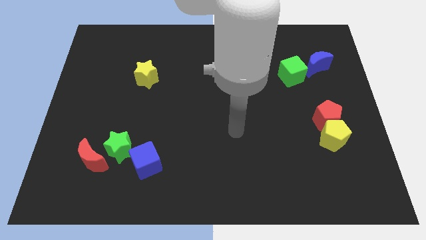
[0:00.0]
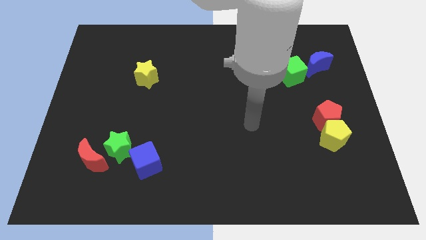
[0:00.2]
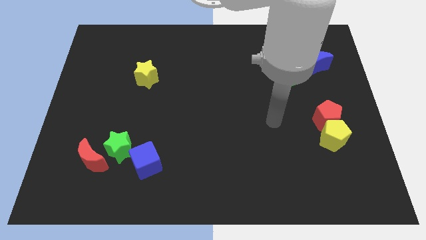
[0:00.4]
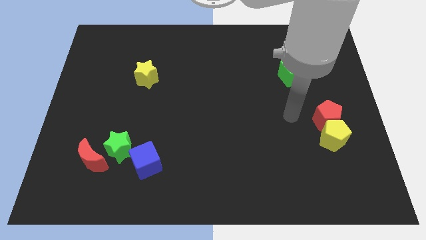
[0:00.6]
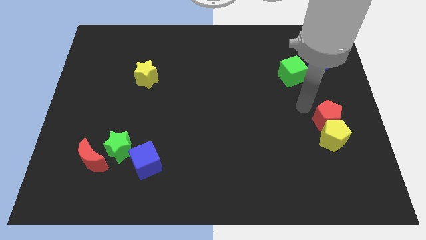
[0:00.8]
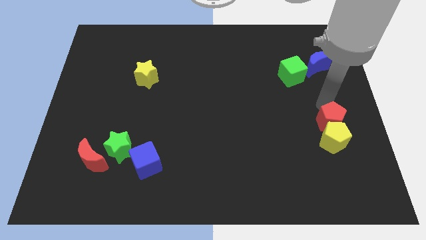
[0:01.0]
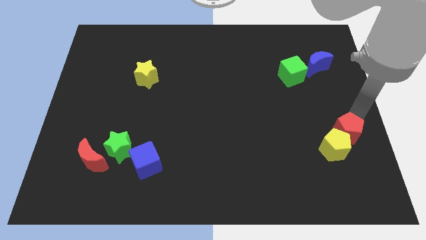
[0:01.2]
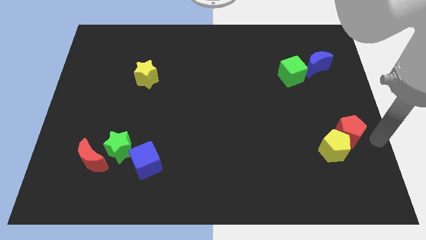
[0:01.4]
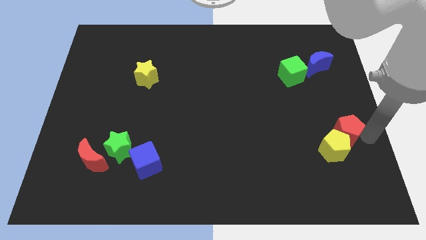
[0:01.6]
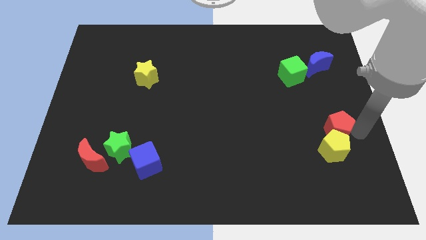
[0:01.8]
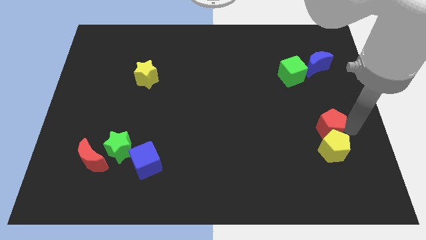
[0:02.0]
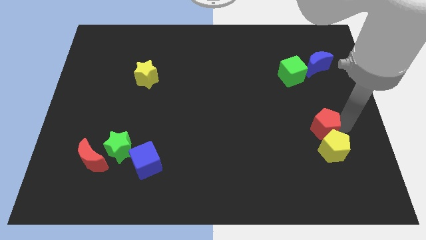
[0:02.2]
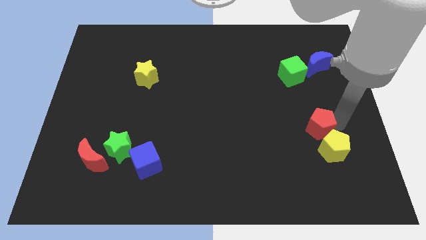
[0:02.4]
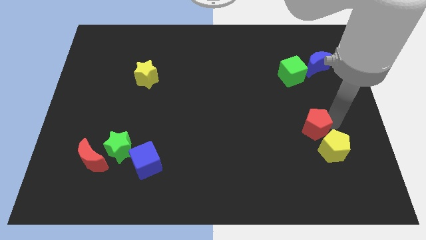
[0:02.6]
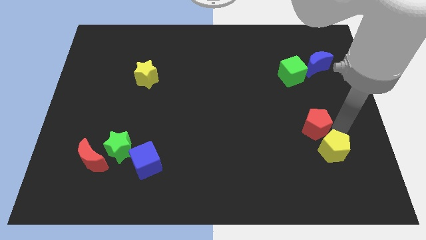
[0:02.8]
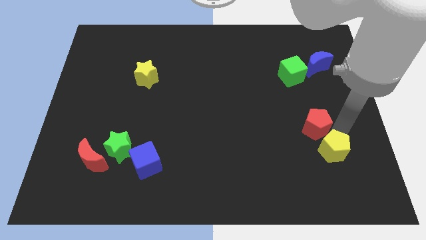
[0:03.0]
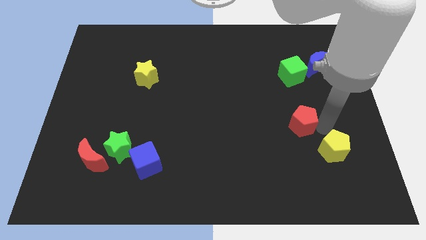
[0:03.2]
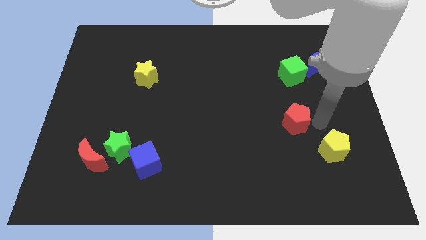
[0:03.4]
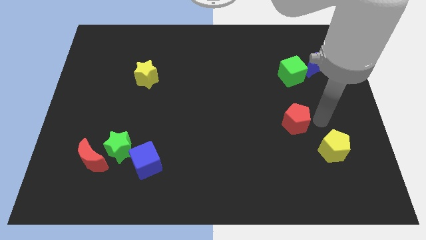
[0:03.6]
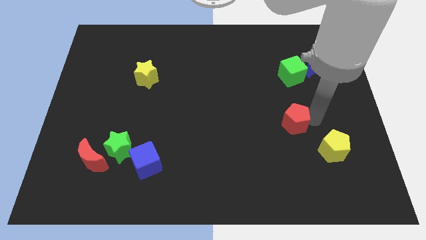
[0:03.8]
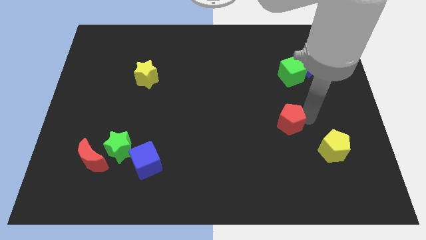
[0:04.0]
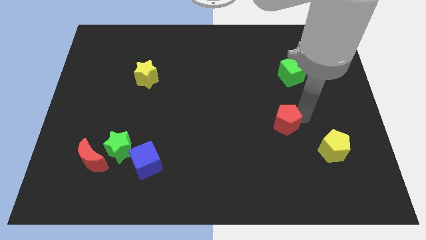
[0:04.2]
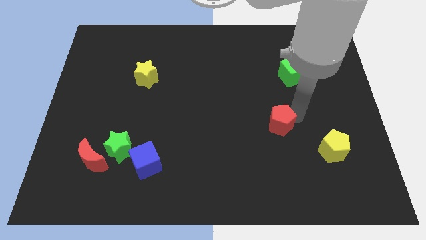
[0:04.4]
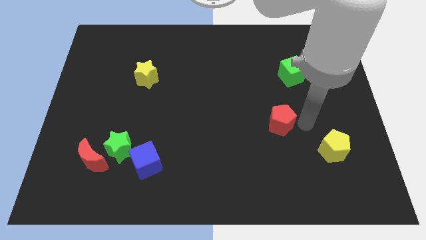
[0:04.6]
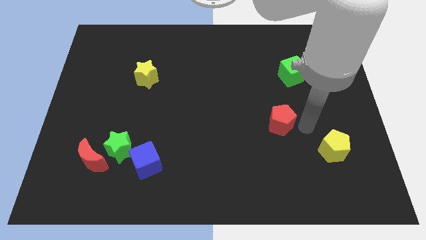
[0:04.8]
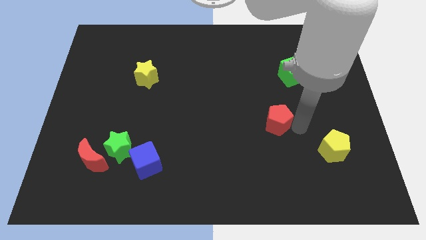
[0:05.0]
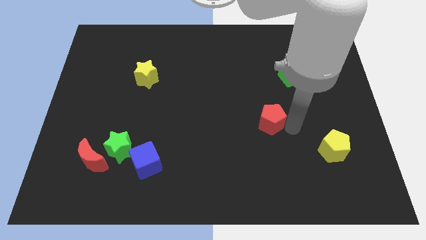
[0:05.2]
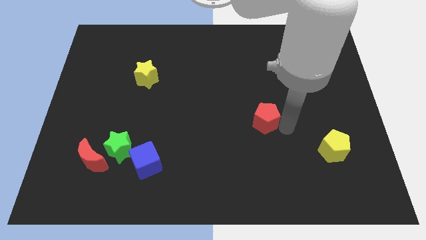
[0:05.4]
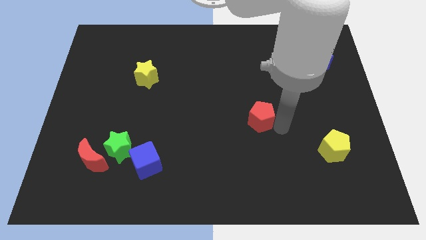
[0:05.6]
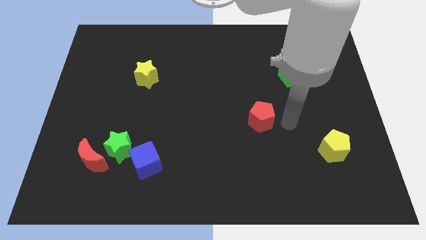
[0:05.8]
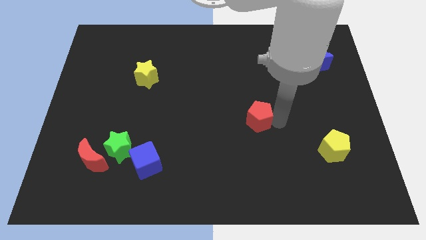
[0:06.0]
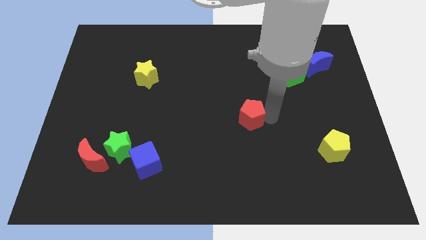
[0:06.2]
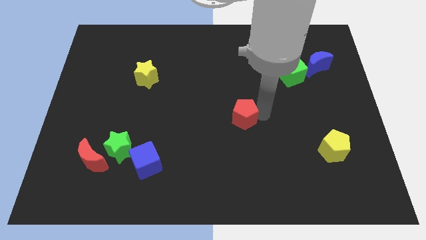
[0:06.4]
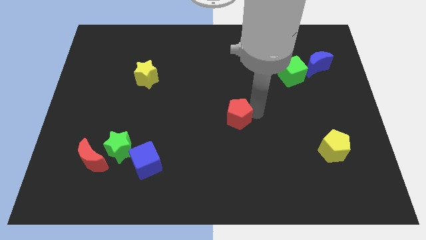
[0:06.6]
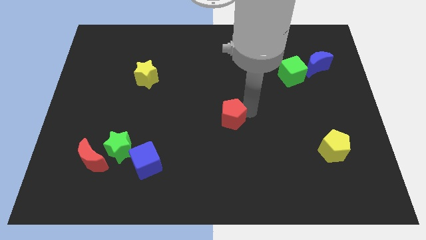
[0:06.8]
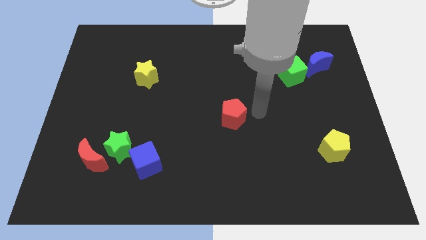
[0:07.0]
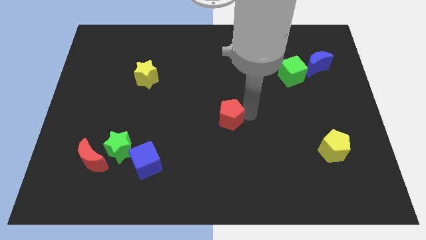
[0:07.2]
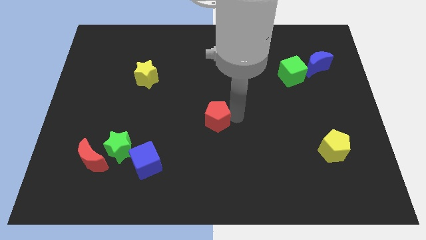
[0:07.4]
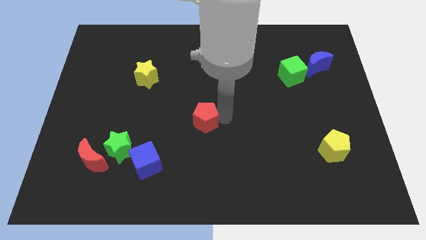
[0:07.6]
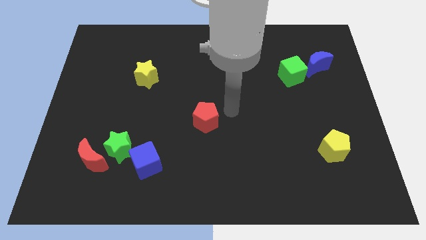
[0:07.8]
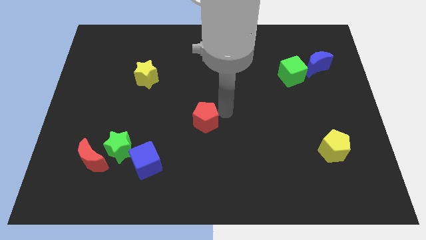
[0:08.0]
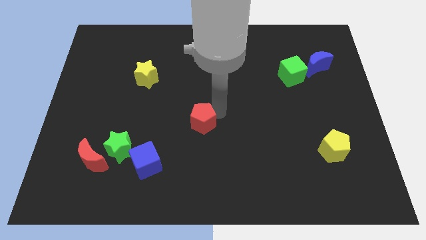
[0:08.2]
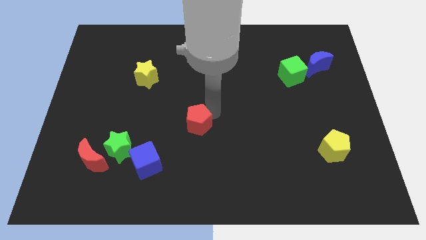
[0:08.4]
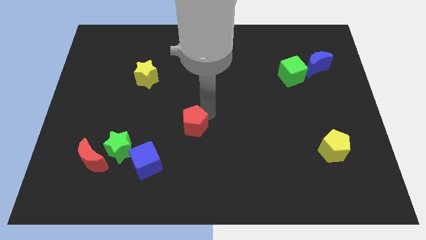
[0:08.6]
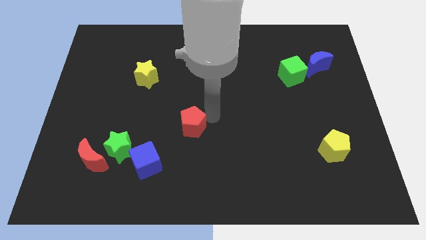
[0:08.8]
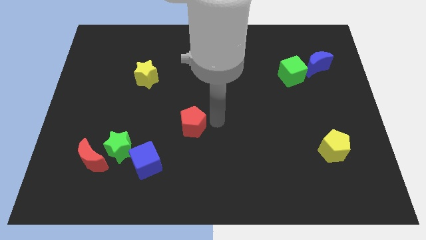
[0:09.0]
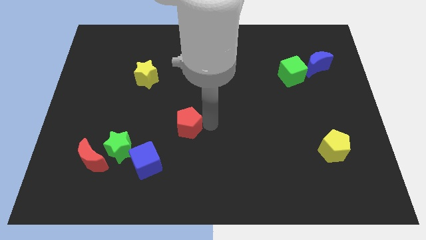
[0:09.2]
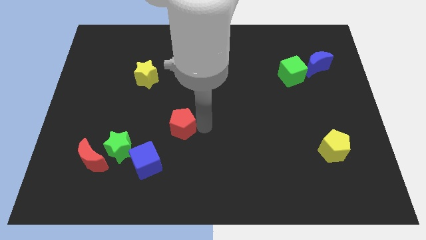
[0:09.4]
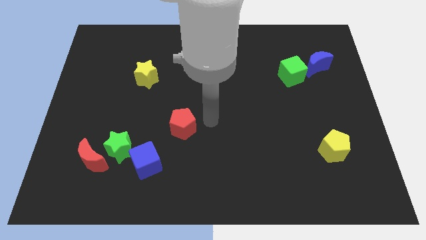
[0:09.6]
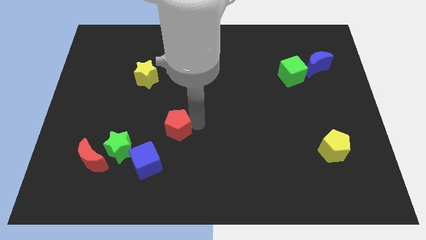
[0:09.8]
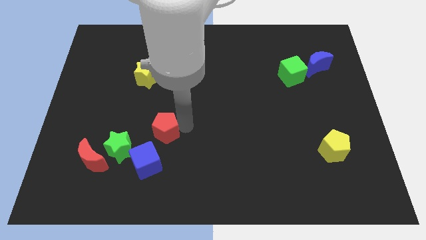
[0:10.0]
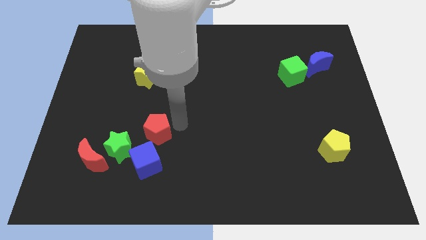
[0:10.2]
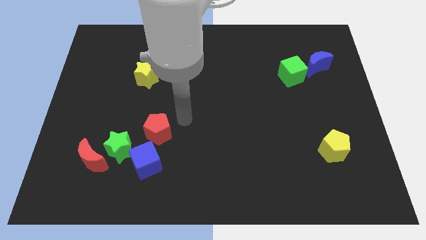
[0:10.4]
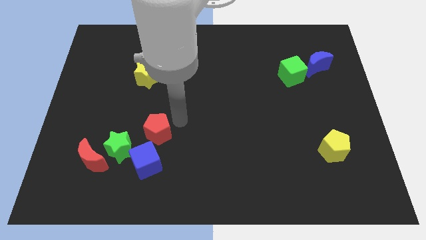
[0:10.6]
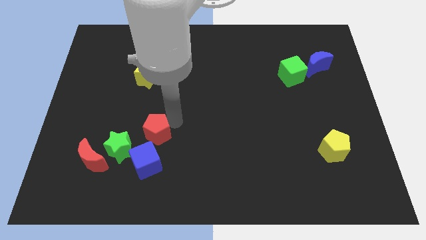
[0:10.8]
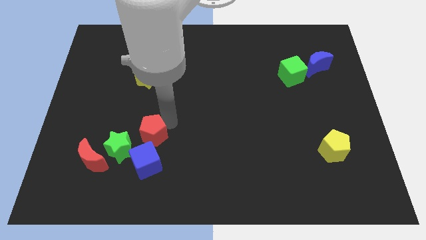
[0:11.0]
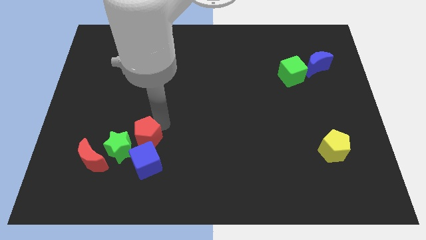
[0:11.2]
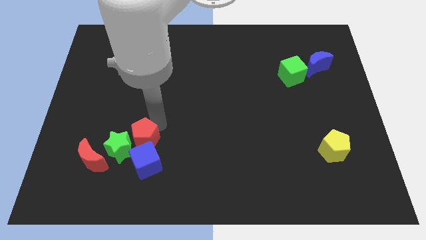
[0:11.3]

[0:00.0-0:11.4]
slide the red pentagon close to the green star

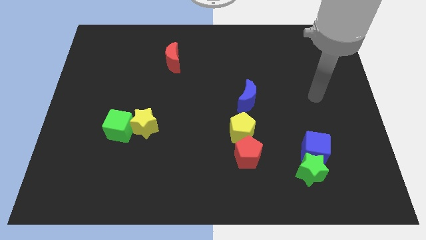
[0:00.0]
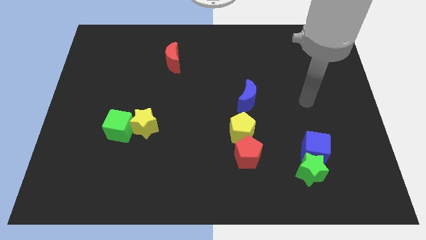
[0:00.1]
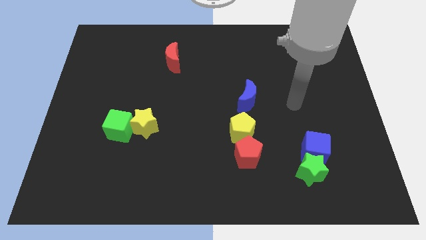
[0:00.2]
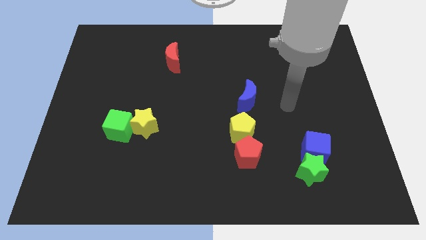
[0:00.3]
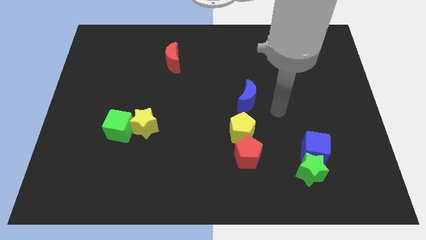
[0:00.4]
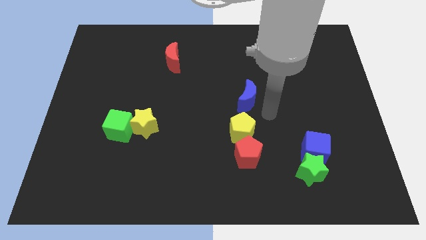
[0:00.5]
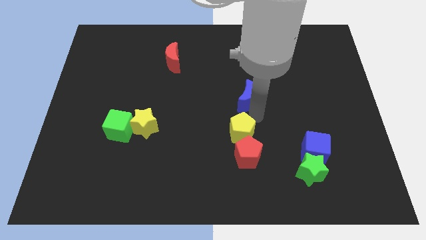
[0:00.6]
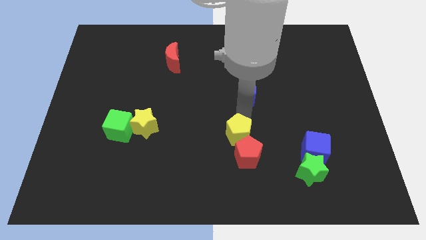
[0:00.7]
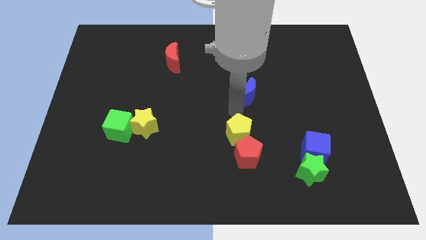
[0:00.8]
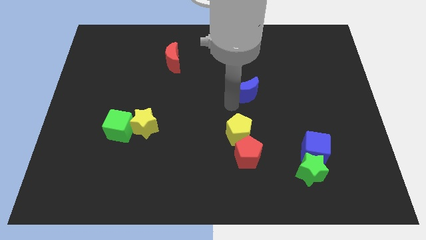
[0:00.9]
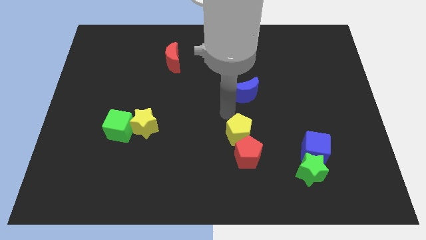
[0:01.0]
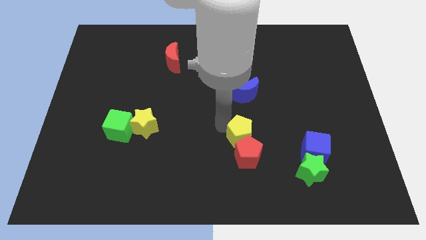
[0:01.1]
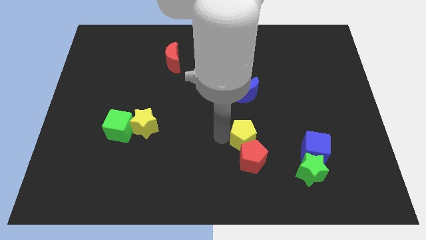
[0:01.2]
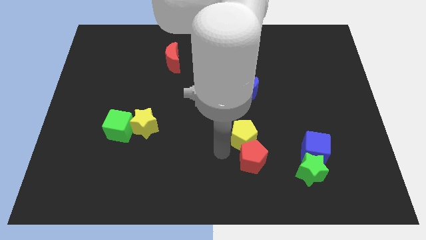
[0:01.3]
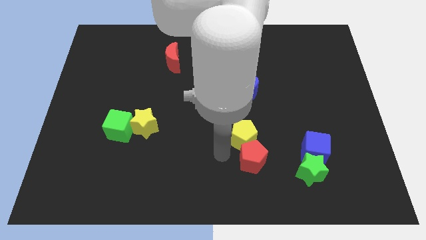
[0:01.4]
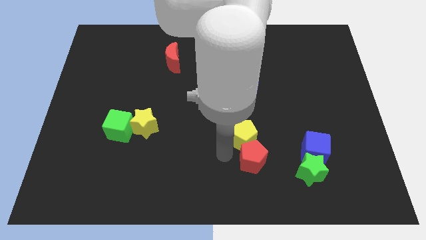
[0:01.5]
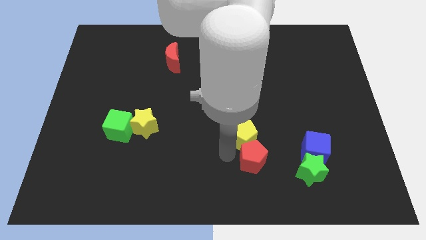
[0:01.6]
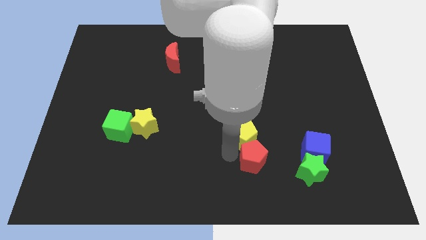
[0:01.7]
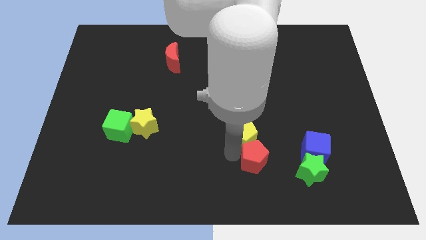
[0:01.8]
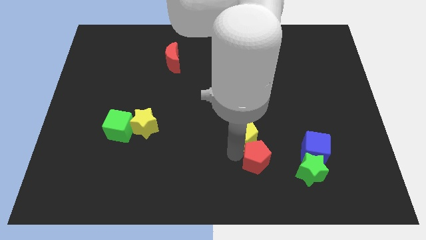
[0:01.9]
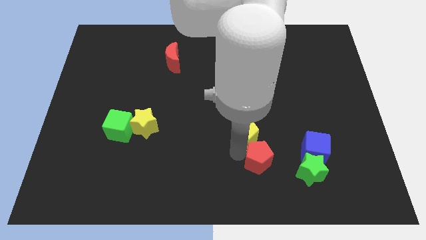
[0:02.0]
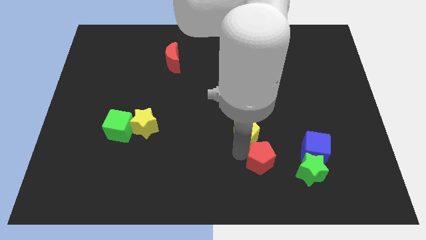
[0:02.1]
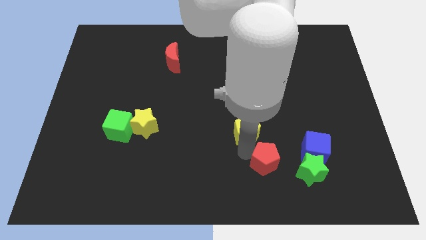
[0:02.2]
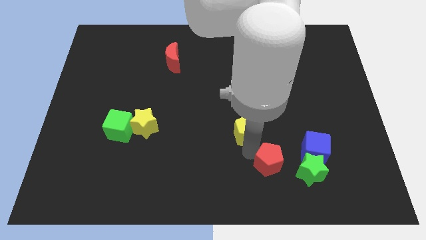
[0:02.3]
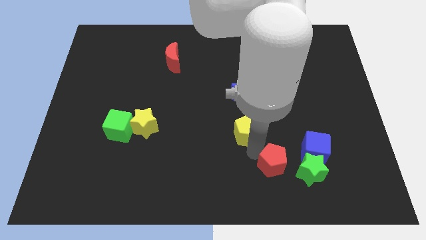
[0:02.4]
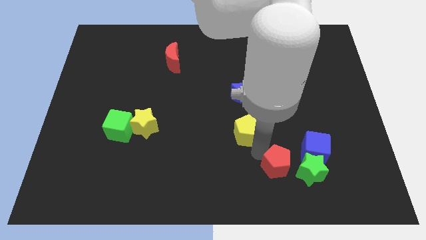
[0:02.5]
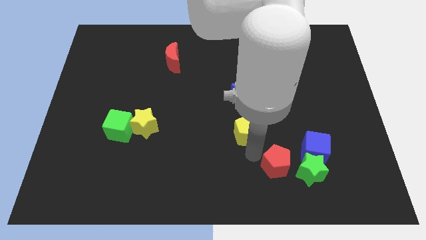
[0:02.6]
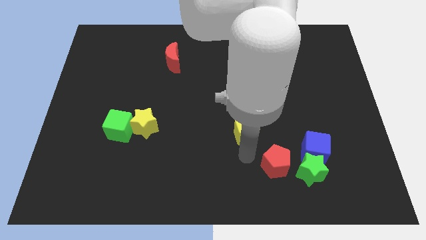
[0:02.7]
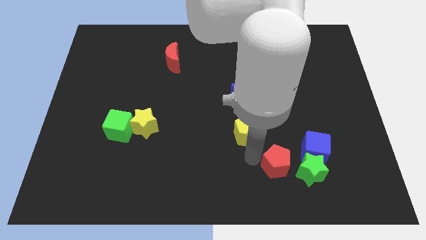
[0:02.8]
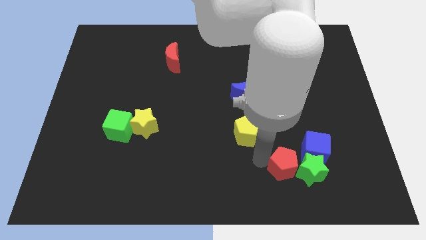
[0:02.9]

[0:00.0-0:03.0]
push the red pentagon towards the green star
